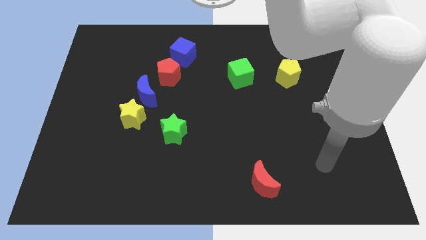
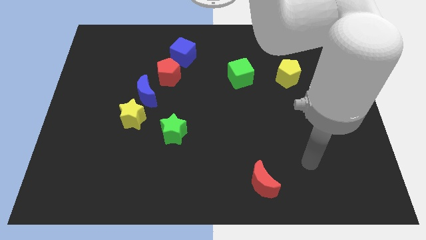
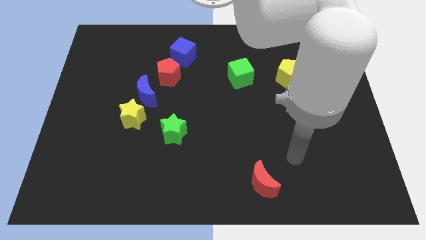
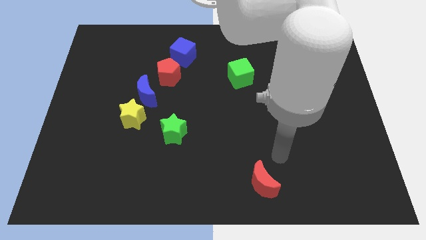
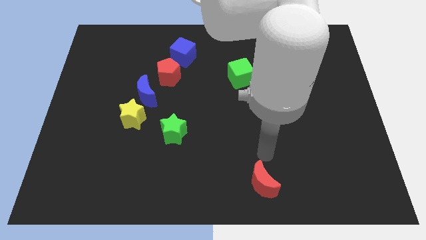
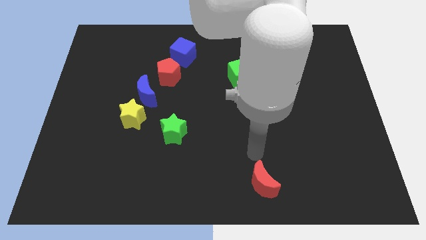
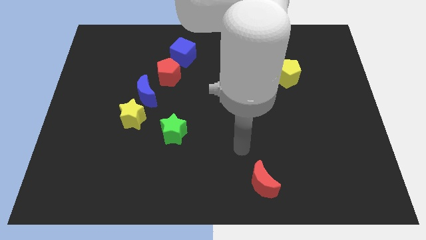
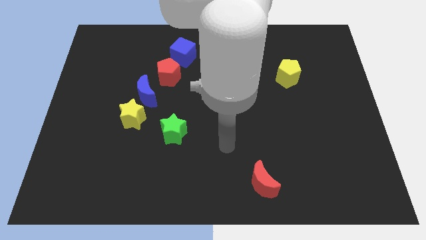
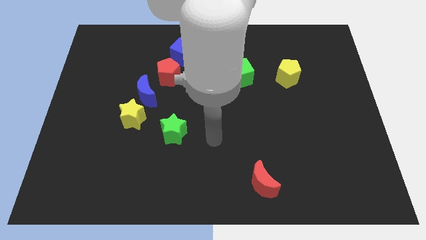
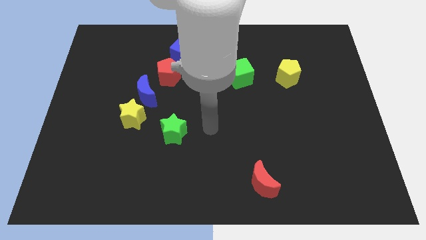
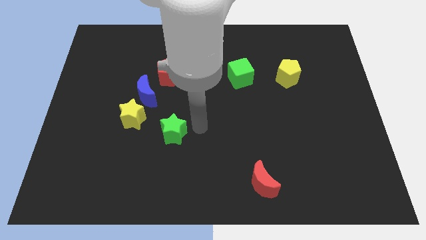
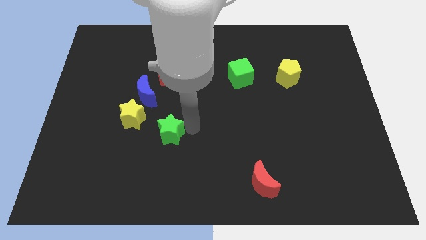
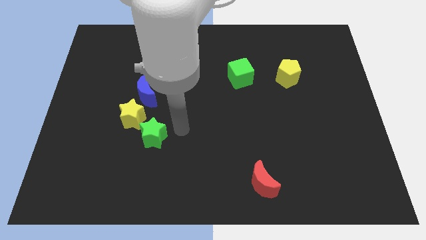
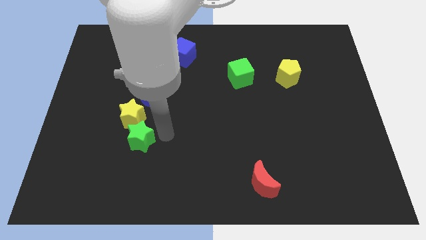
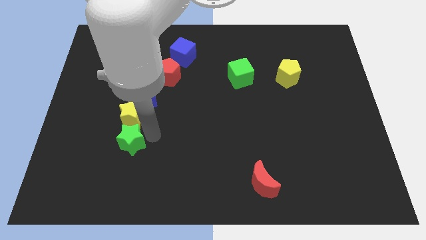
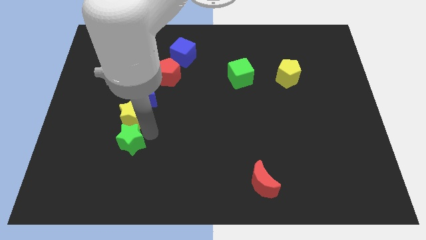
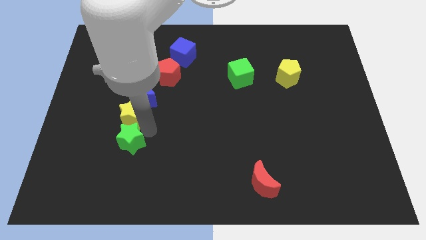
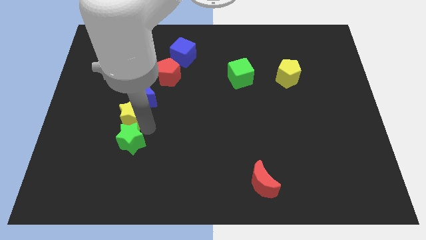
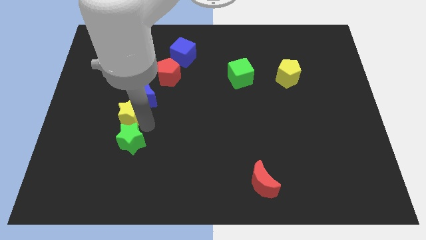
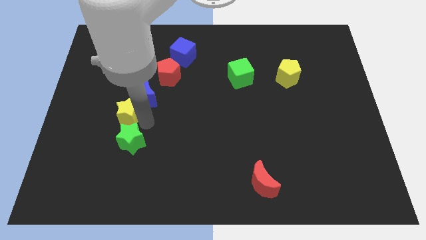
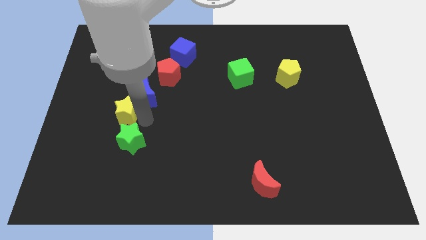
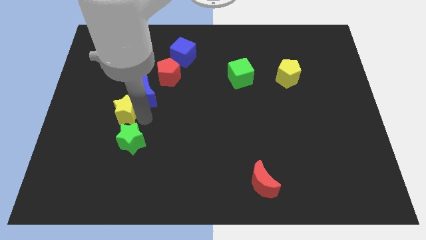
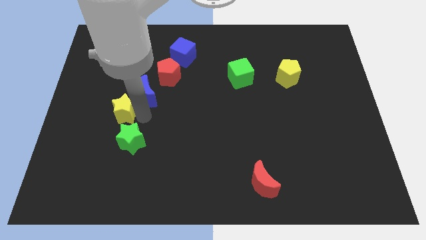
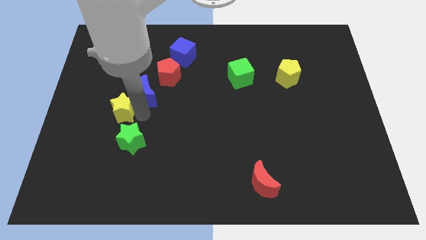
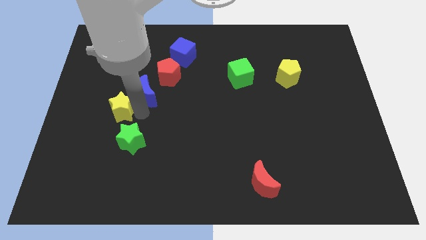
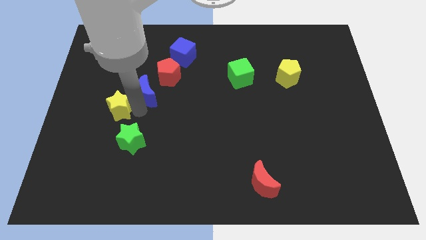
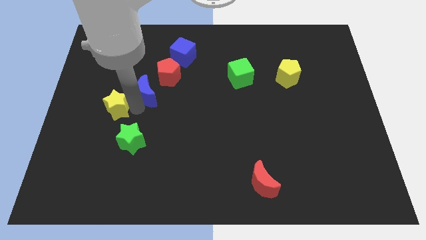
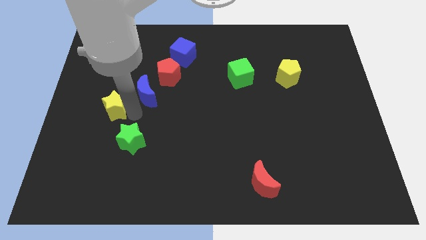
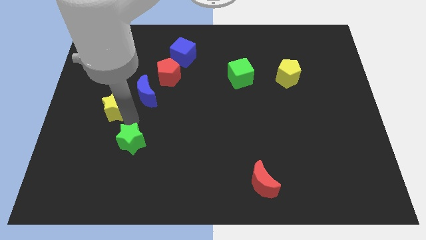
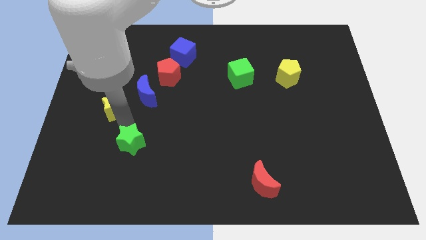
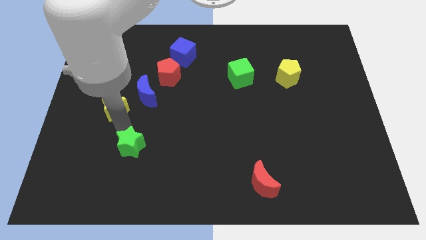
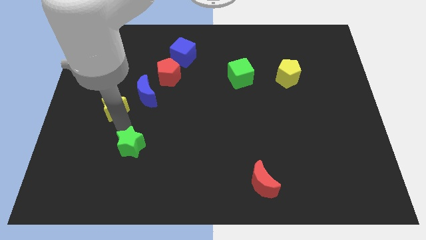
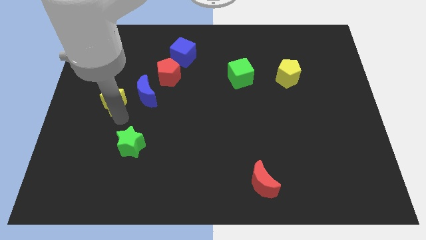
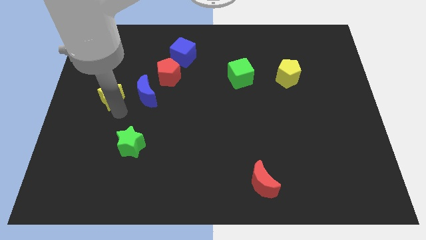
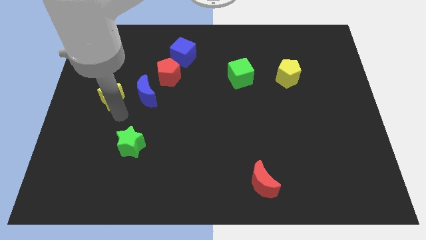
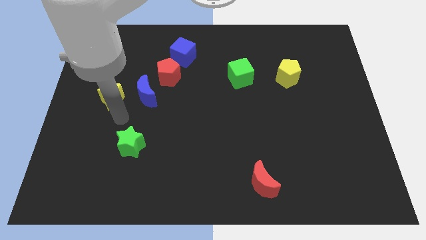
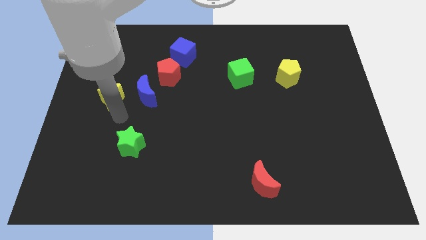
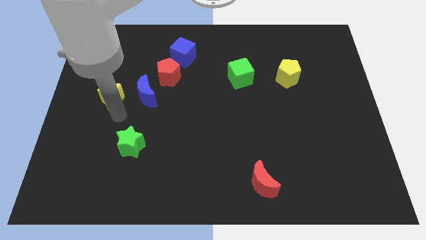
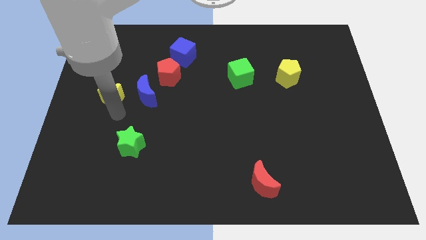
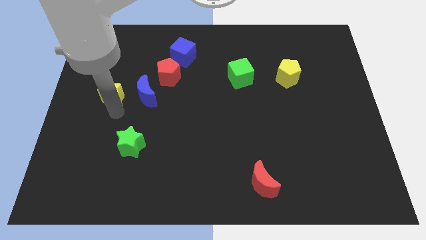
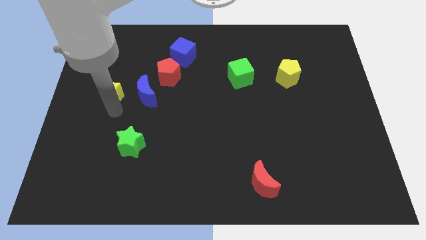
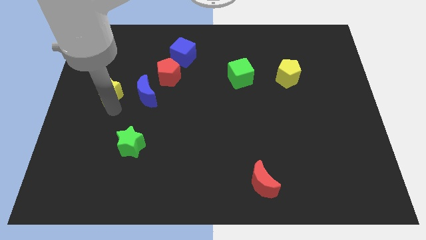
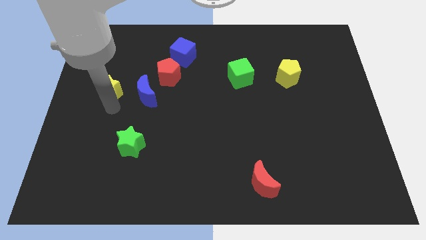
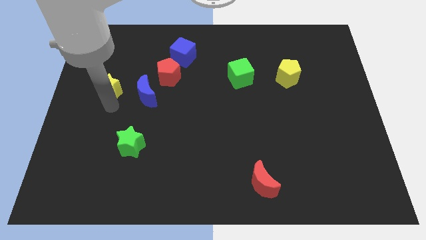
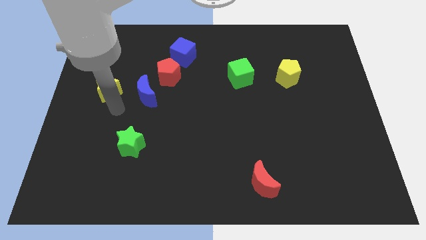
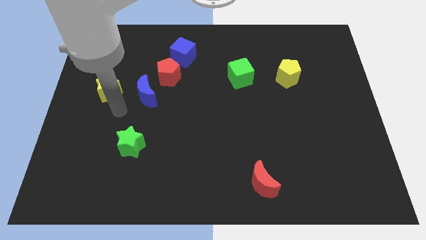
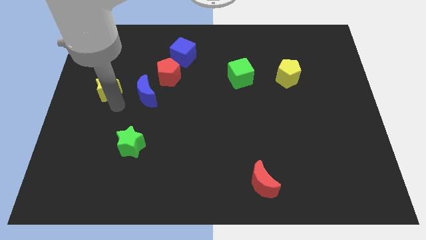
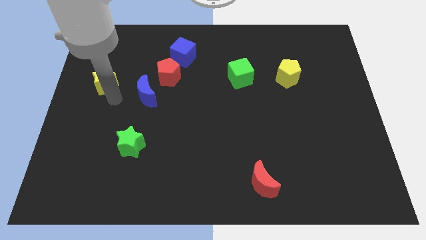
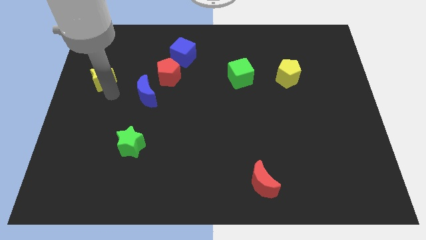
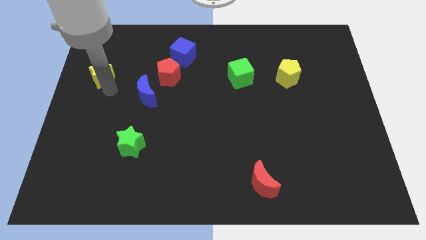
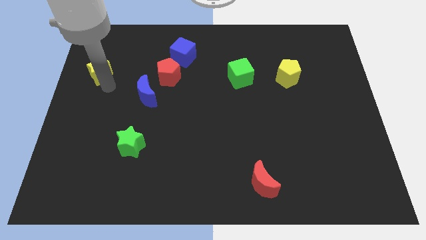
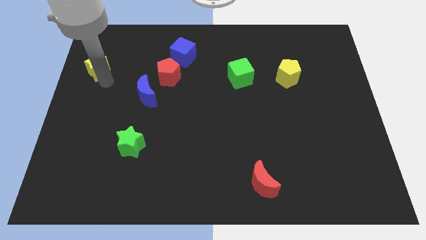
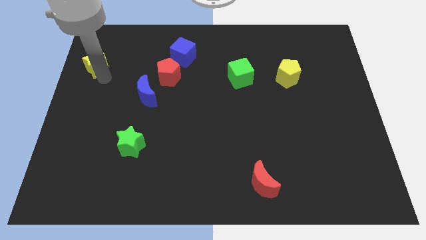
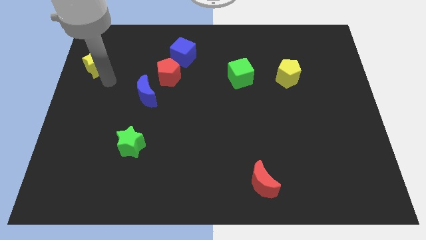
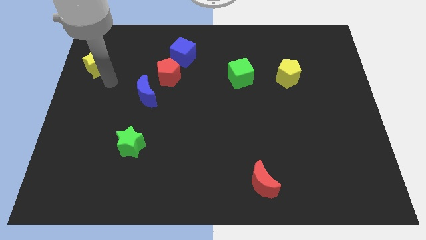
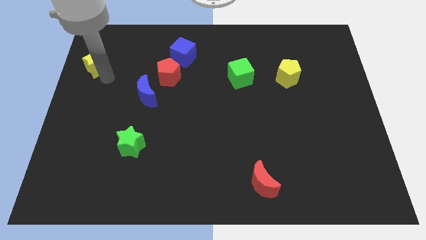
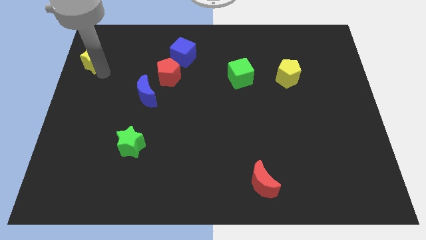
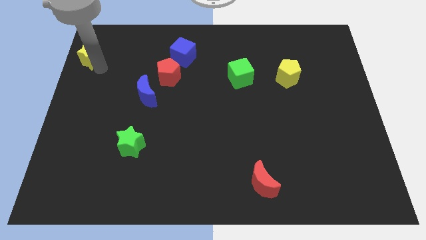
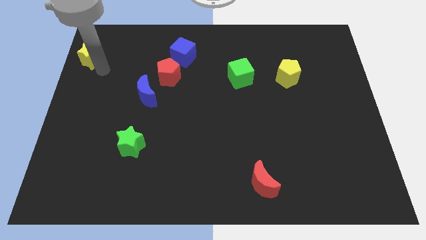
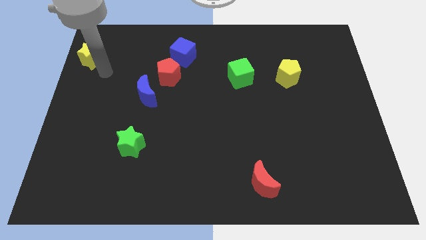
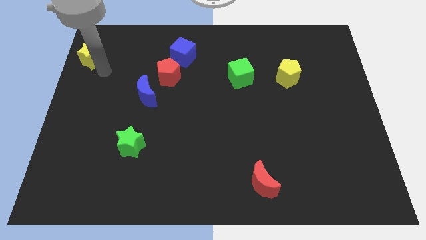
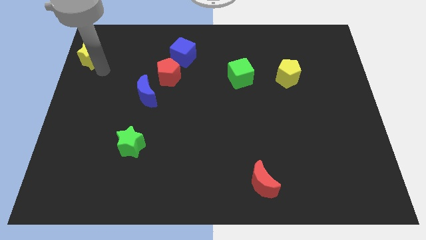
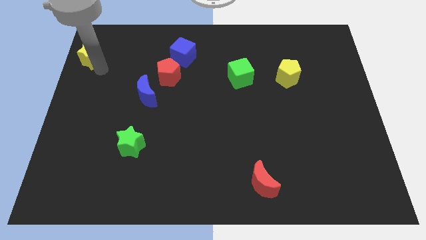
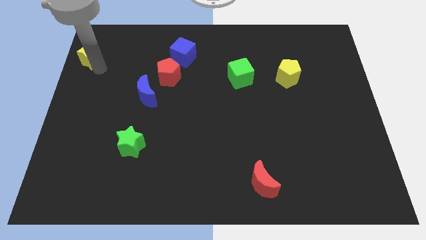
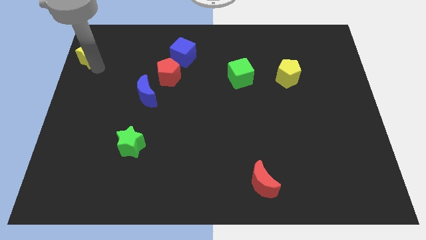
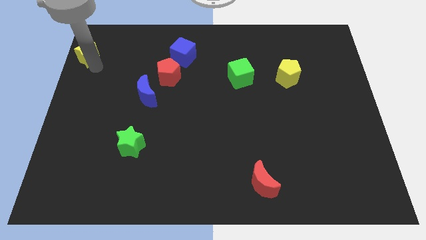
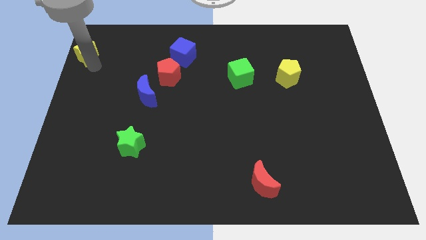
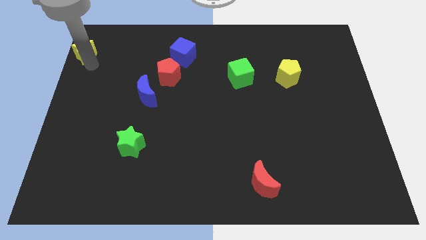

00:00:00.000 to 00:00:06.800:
move the yellow star to the top left of the board
